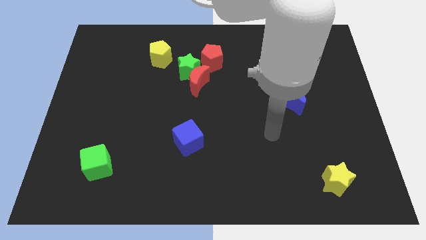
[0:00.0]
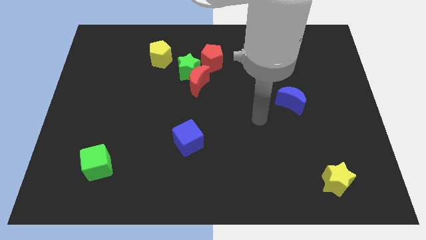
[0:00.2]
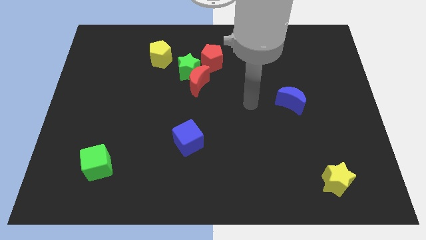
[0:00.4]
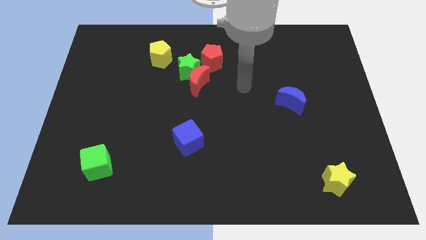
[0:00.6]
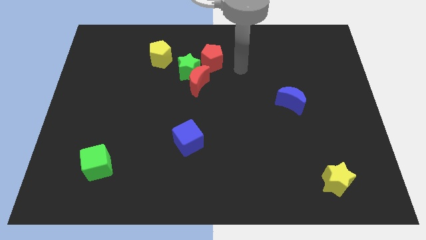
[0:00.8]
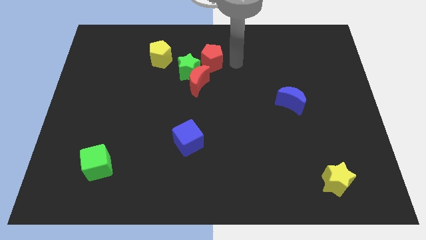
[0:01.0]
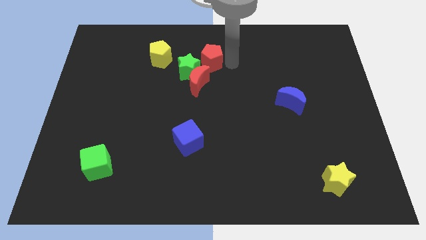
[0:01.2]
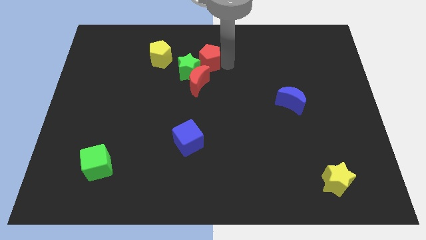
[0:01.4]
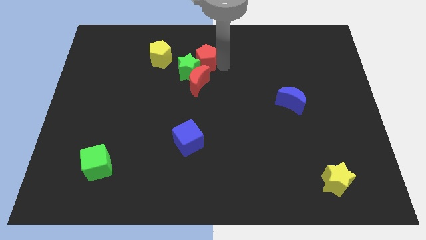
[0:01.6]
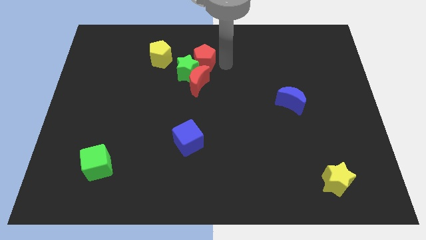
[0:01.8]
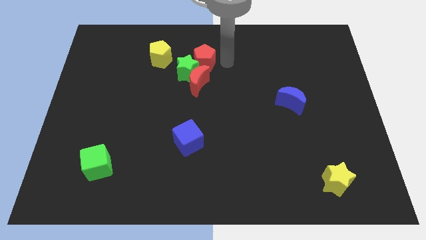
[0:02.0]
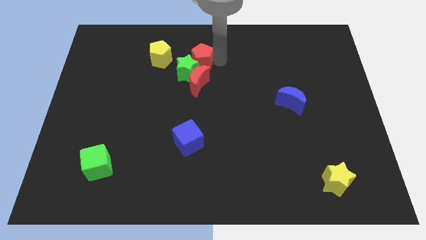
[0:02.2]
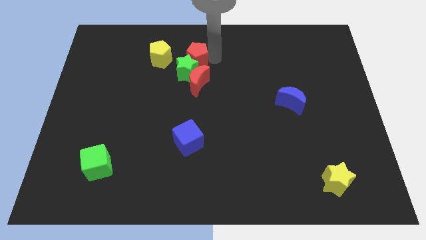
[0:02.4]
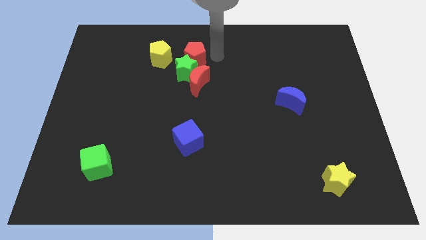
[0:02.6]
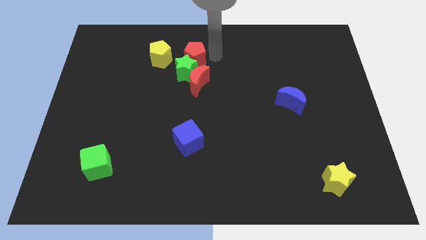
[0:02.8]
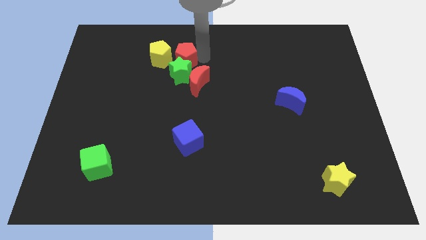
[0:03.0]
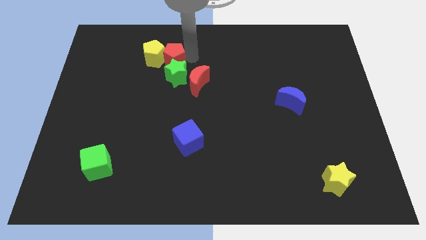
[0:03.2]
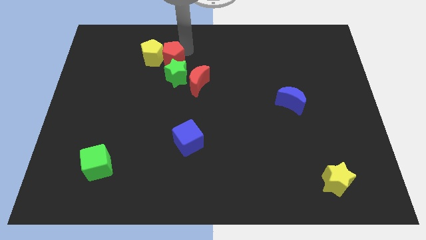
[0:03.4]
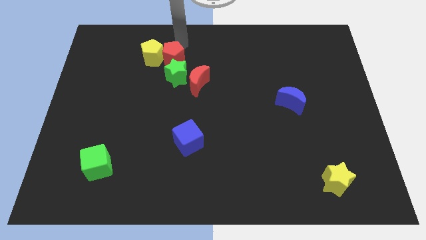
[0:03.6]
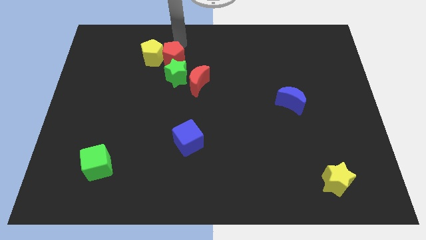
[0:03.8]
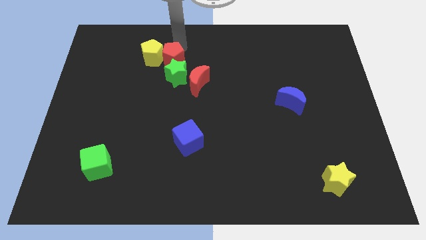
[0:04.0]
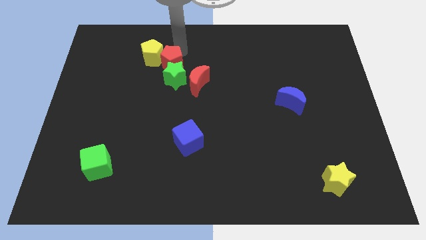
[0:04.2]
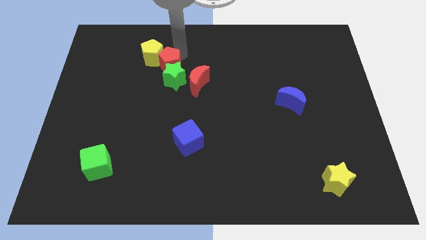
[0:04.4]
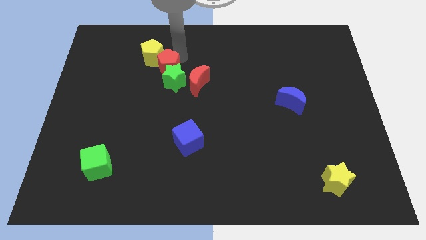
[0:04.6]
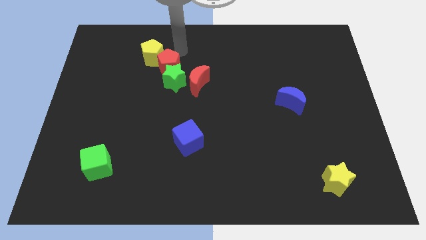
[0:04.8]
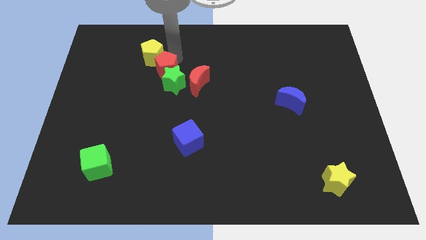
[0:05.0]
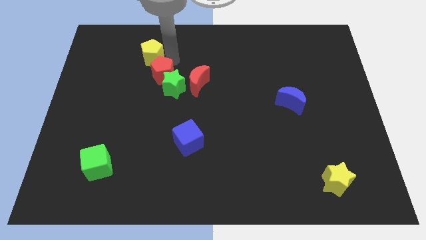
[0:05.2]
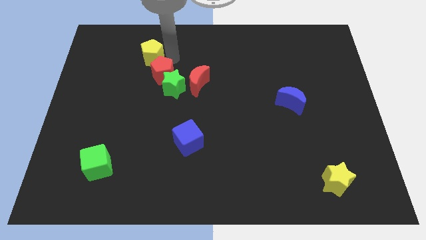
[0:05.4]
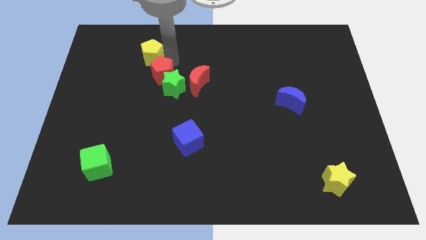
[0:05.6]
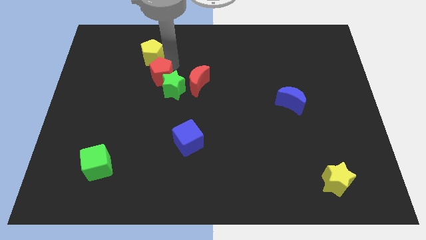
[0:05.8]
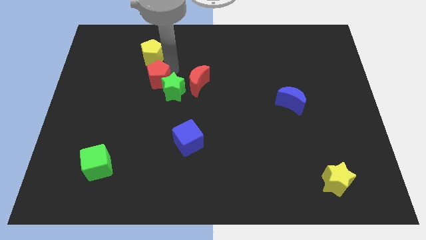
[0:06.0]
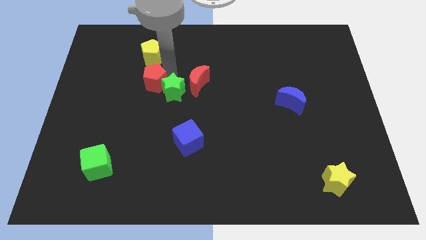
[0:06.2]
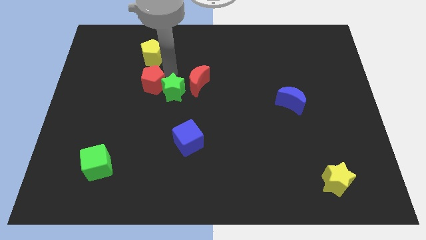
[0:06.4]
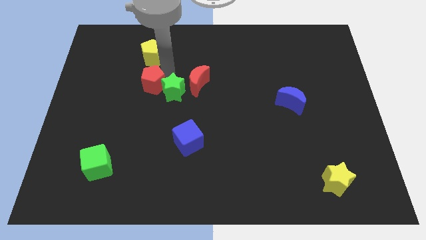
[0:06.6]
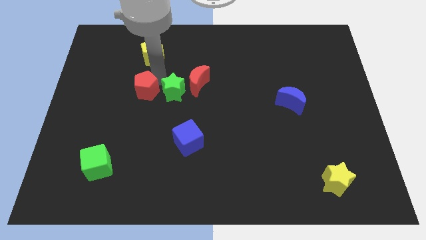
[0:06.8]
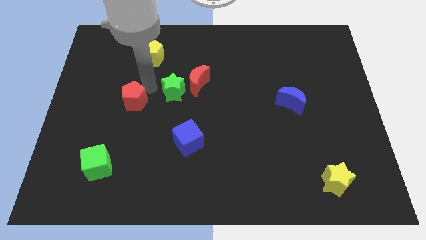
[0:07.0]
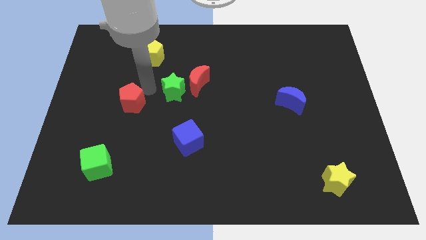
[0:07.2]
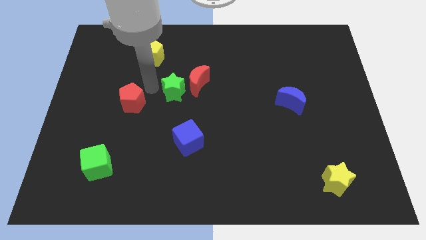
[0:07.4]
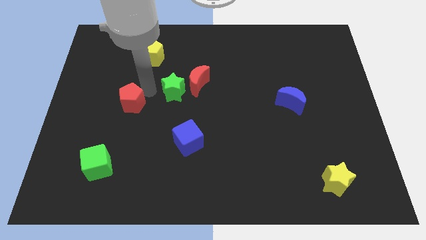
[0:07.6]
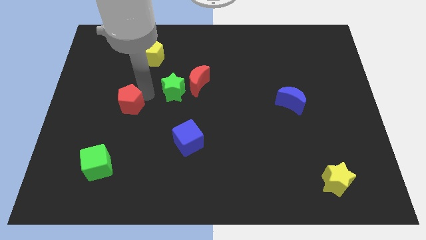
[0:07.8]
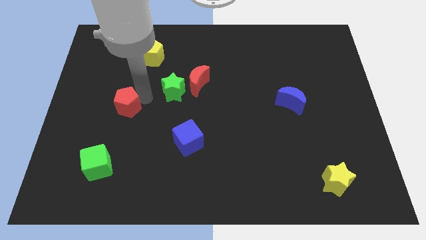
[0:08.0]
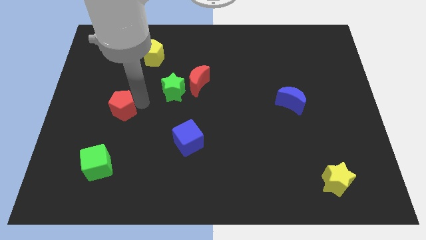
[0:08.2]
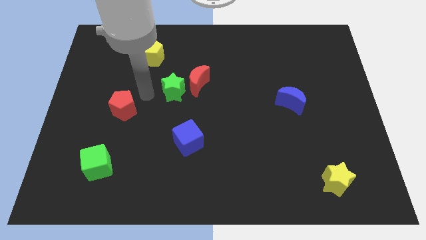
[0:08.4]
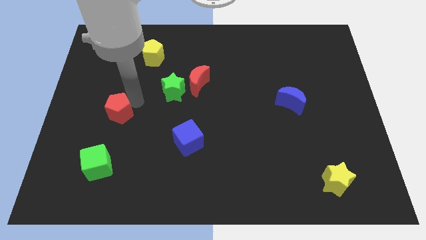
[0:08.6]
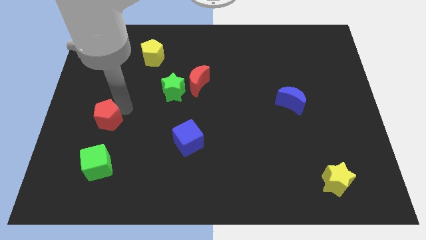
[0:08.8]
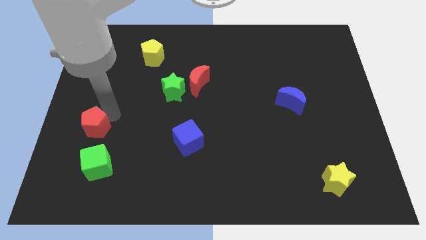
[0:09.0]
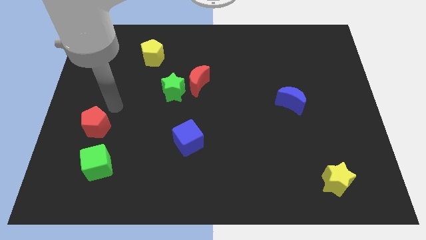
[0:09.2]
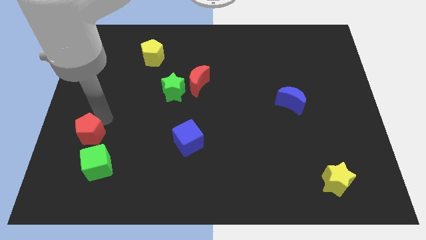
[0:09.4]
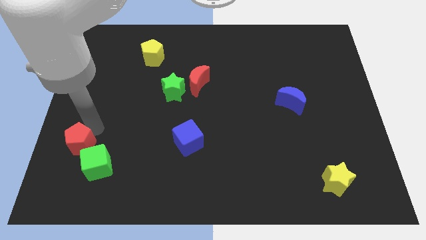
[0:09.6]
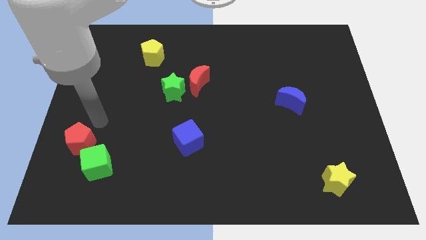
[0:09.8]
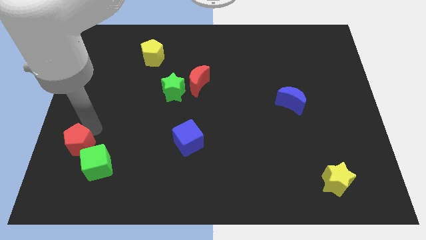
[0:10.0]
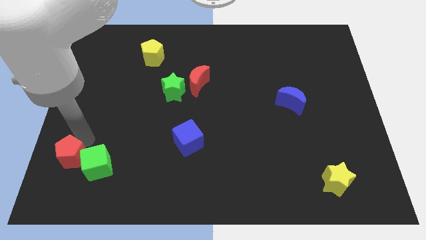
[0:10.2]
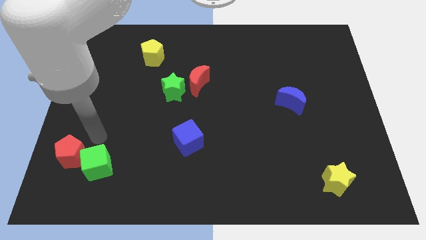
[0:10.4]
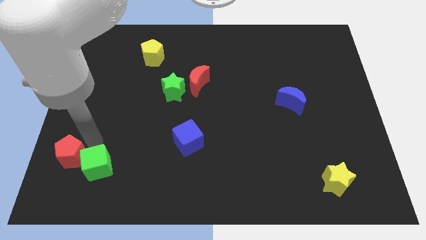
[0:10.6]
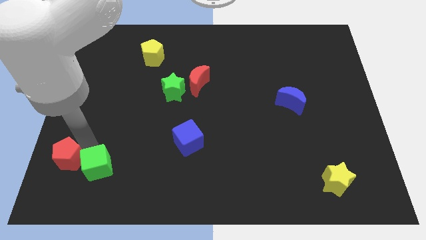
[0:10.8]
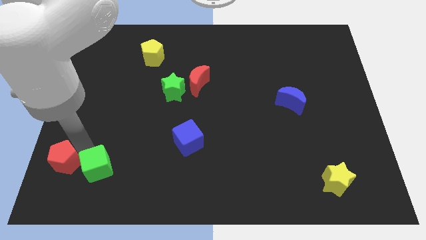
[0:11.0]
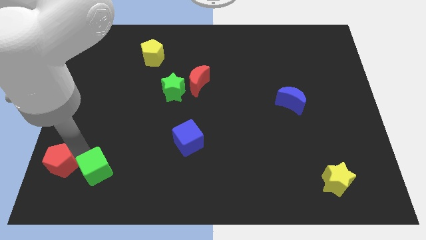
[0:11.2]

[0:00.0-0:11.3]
push the red pentagon to the bottom left corner
